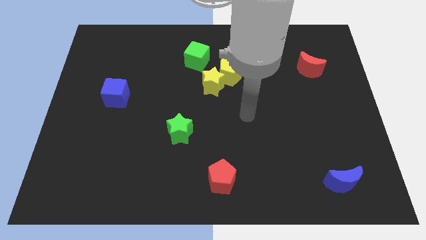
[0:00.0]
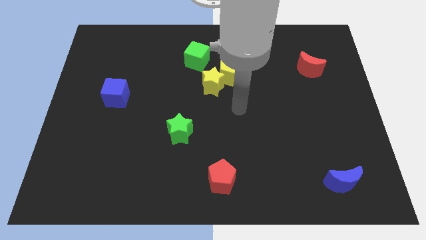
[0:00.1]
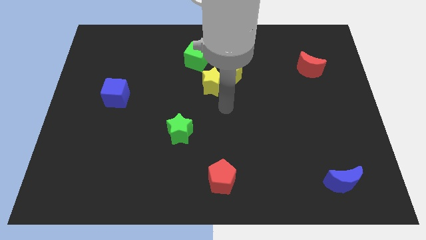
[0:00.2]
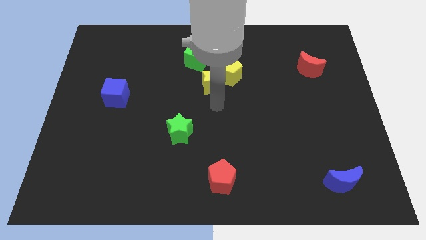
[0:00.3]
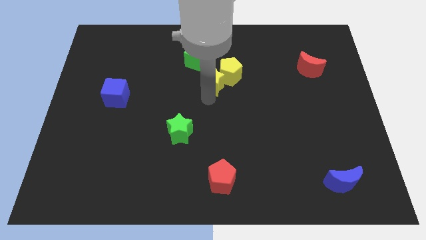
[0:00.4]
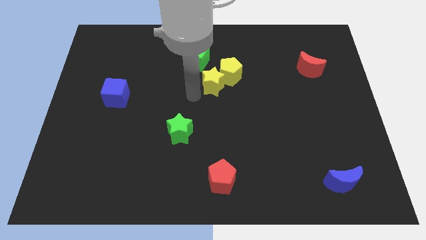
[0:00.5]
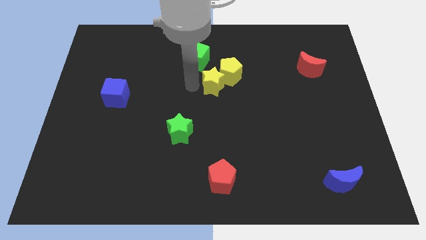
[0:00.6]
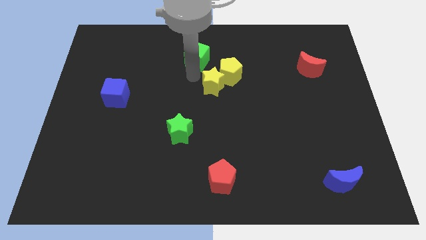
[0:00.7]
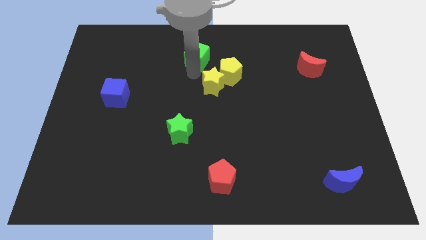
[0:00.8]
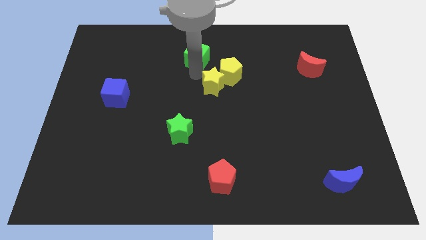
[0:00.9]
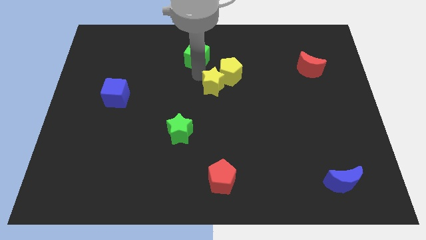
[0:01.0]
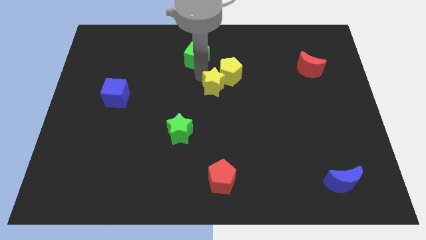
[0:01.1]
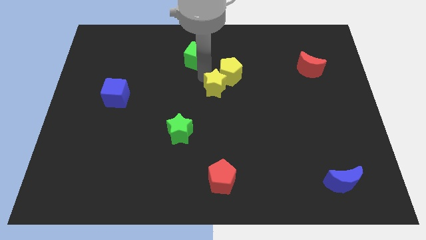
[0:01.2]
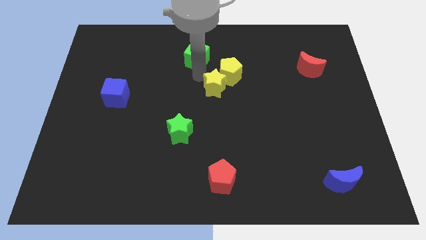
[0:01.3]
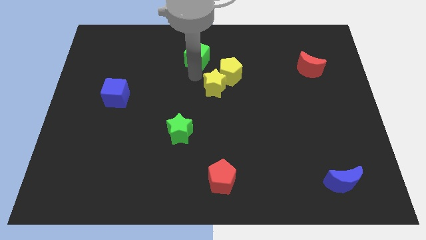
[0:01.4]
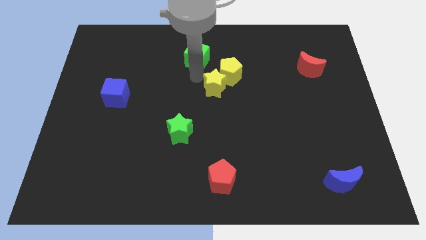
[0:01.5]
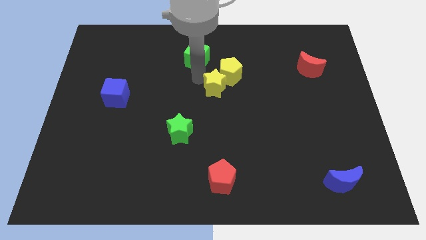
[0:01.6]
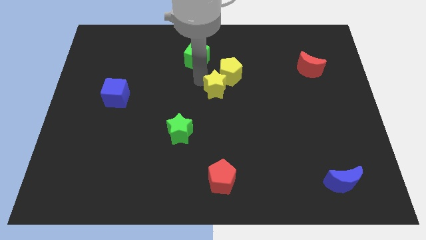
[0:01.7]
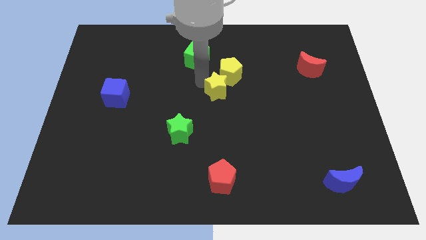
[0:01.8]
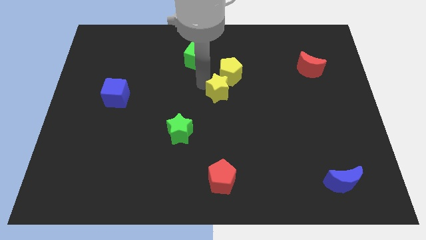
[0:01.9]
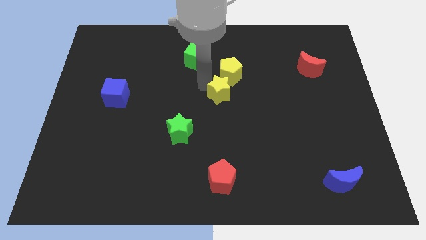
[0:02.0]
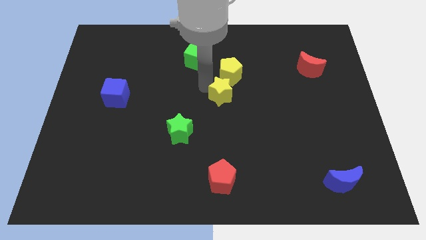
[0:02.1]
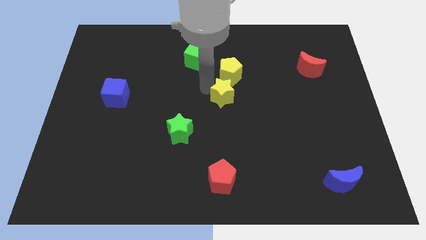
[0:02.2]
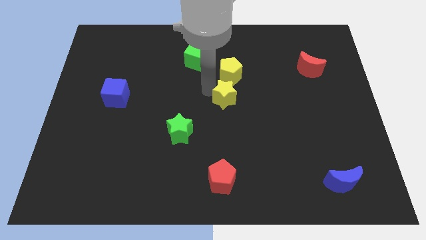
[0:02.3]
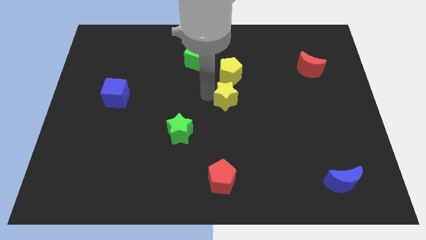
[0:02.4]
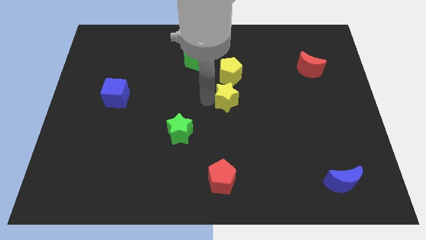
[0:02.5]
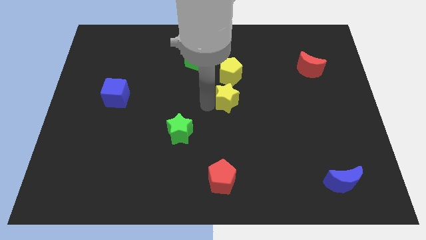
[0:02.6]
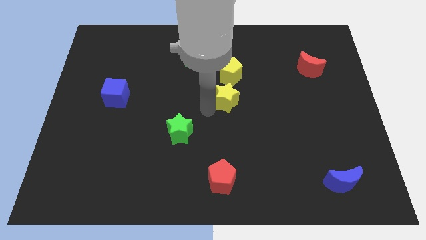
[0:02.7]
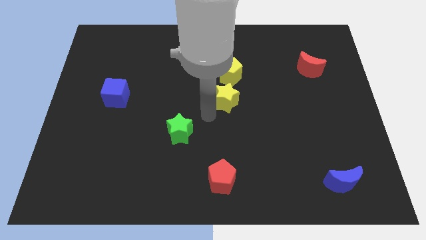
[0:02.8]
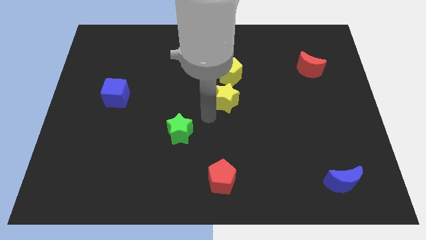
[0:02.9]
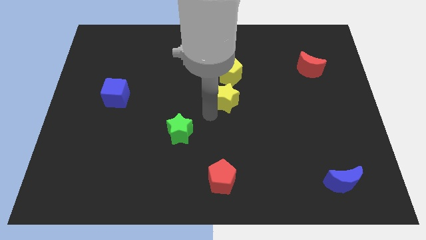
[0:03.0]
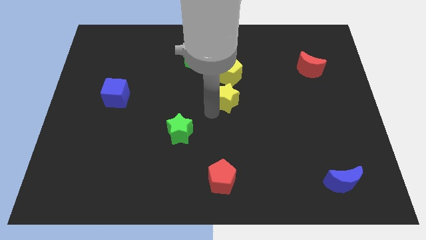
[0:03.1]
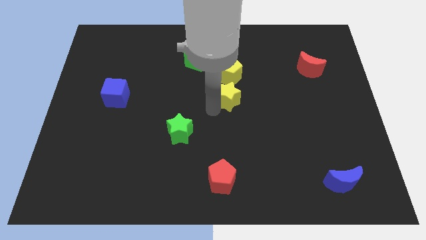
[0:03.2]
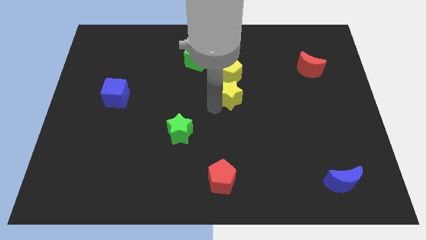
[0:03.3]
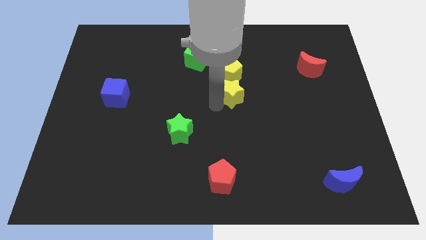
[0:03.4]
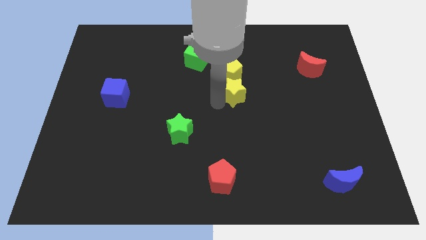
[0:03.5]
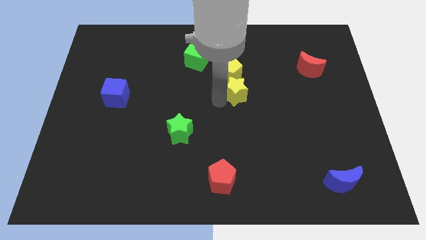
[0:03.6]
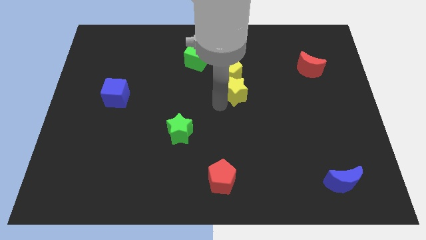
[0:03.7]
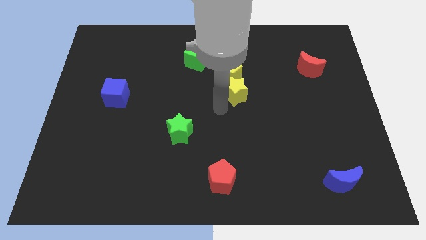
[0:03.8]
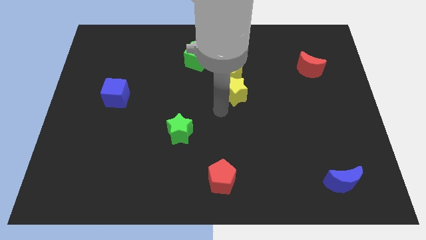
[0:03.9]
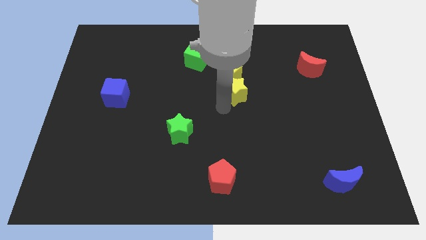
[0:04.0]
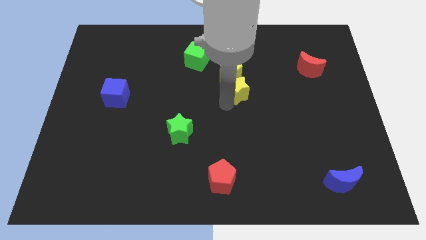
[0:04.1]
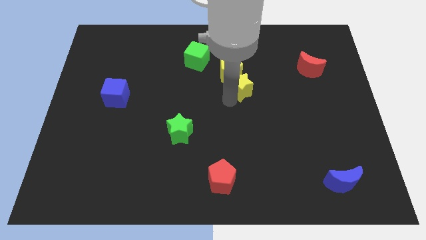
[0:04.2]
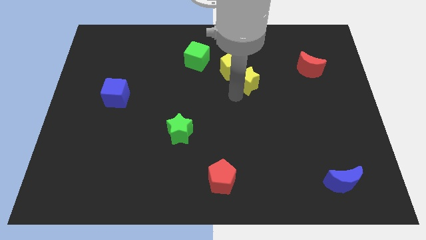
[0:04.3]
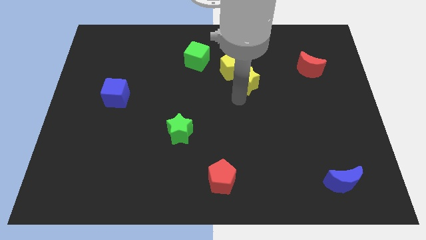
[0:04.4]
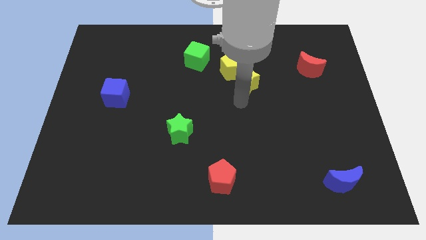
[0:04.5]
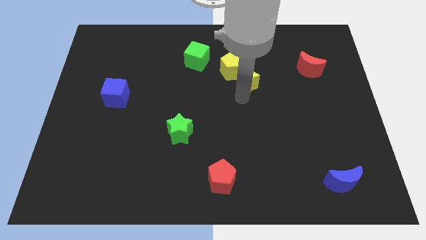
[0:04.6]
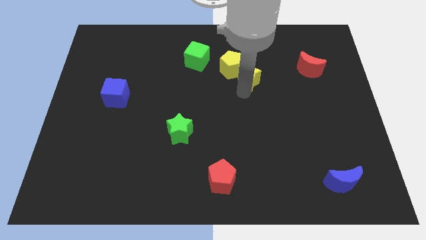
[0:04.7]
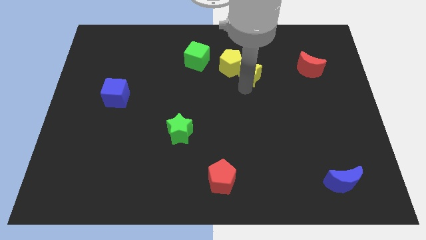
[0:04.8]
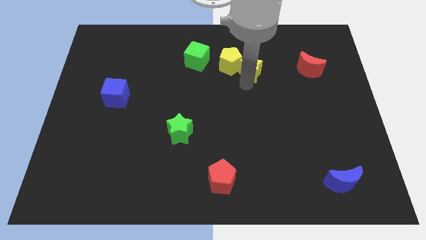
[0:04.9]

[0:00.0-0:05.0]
put the yellow star right of the green cube

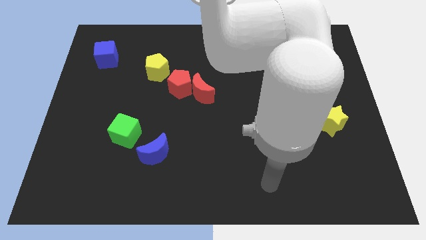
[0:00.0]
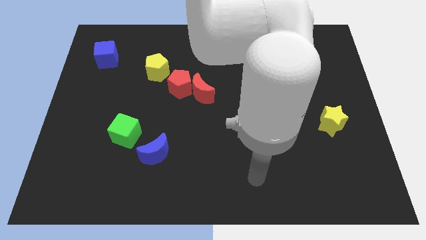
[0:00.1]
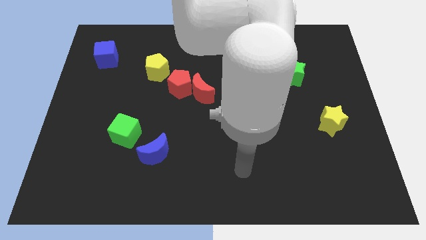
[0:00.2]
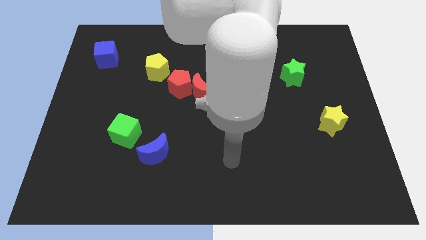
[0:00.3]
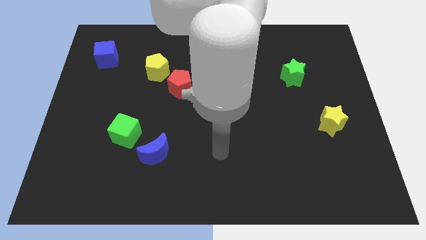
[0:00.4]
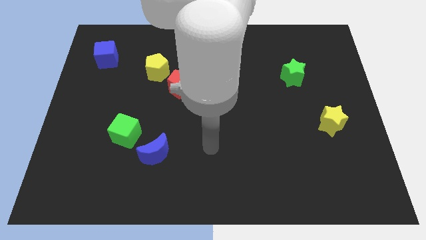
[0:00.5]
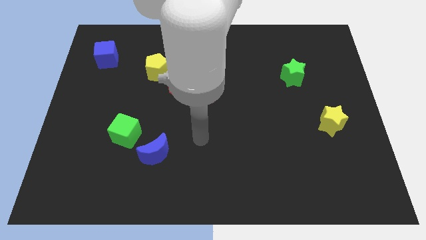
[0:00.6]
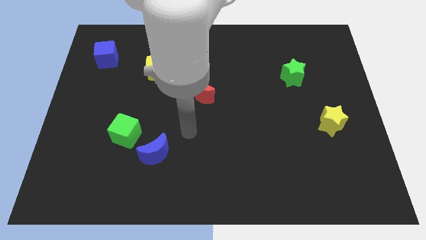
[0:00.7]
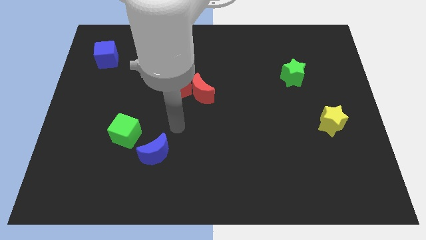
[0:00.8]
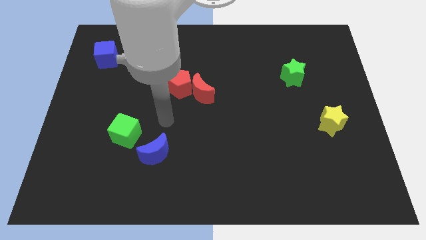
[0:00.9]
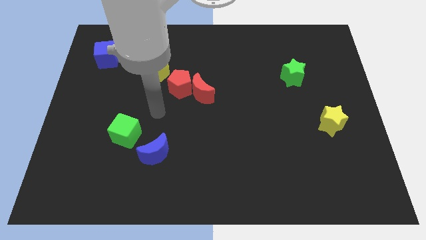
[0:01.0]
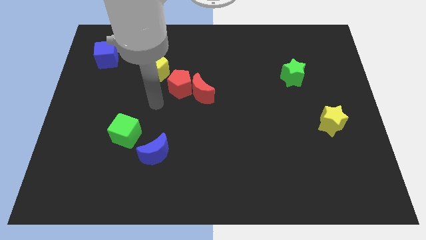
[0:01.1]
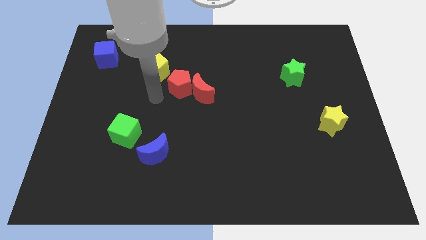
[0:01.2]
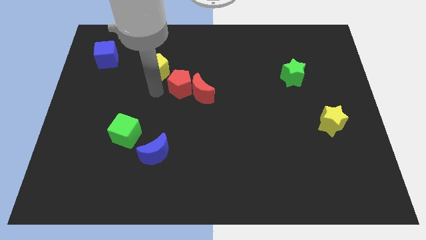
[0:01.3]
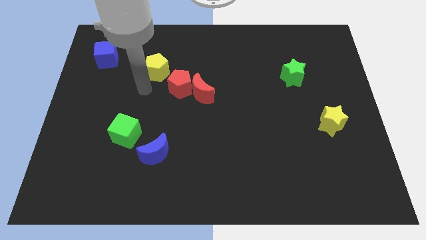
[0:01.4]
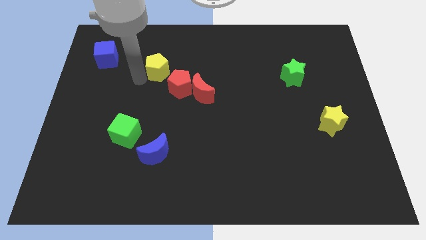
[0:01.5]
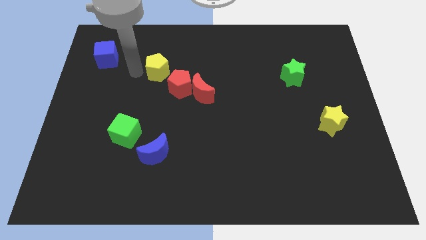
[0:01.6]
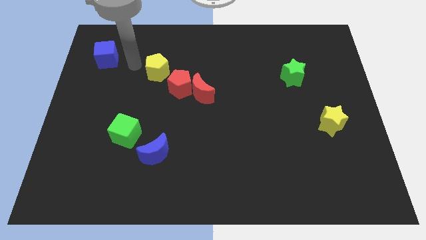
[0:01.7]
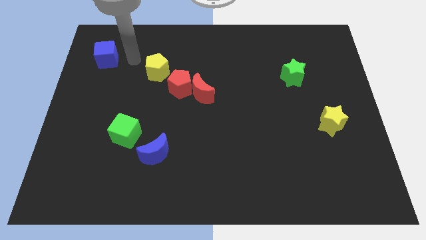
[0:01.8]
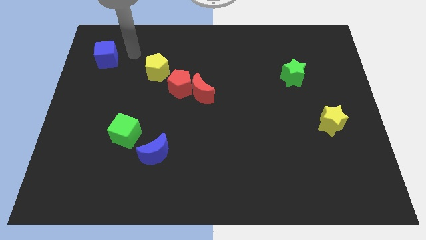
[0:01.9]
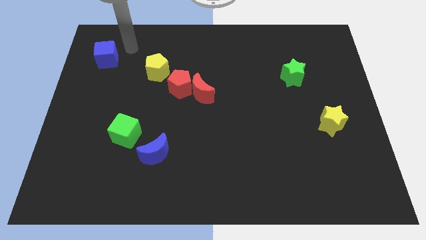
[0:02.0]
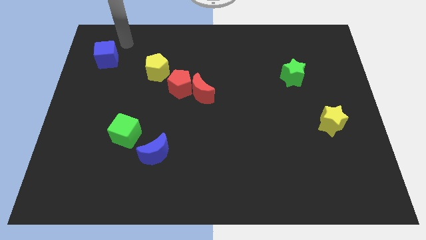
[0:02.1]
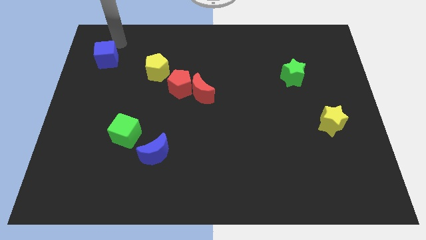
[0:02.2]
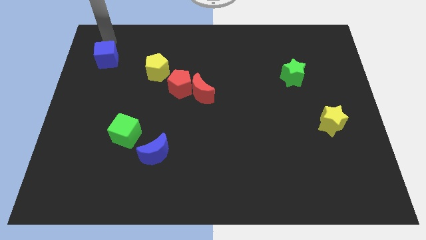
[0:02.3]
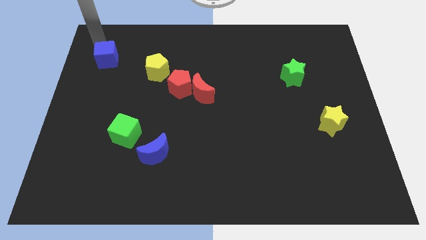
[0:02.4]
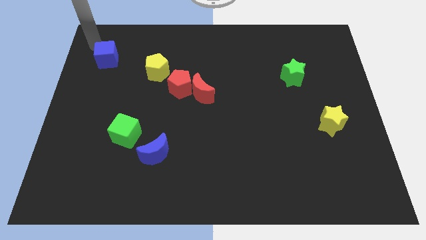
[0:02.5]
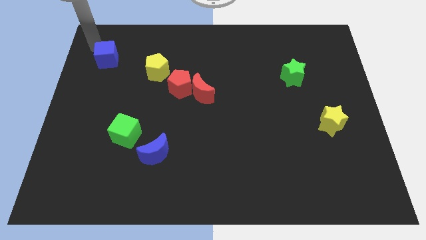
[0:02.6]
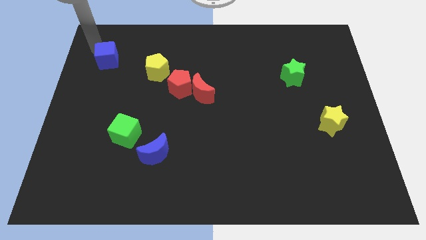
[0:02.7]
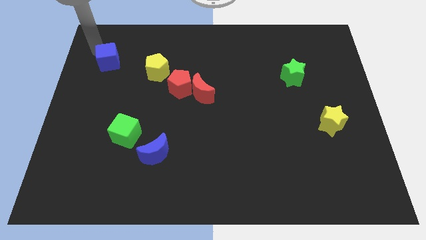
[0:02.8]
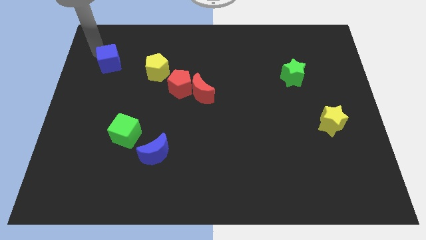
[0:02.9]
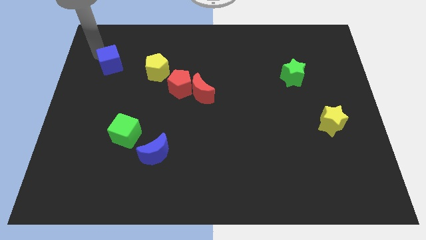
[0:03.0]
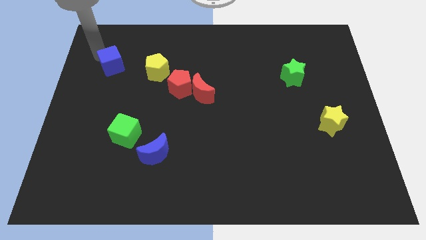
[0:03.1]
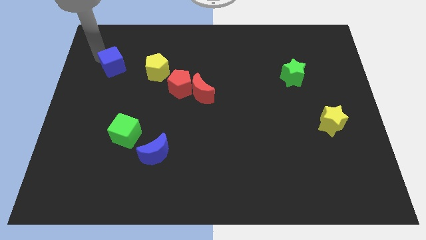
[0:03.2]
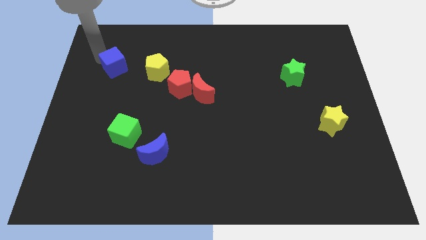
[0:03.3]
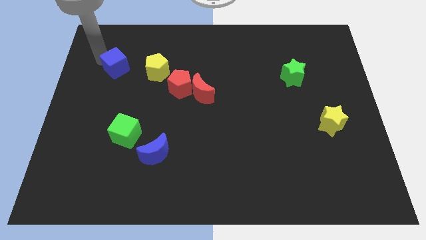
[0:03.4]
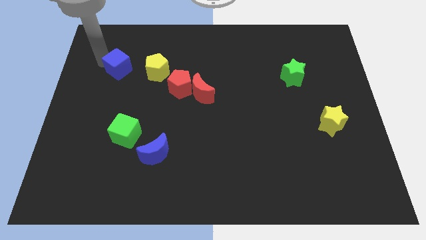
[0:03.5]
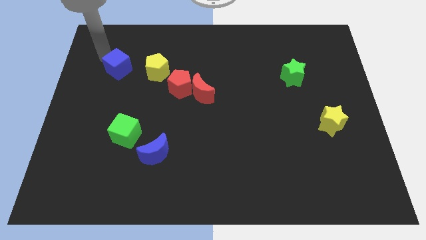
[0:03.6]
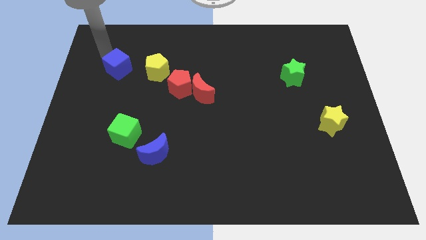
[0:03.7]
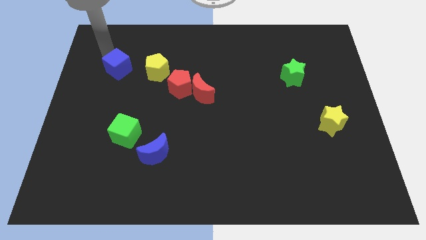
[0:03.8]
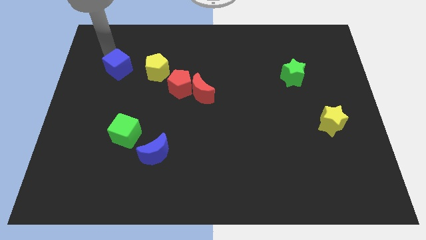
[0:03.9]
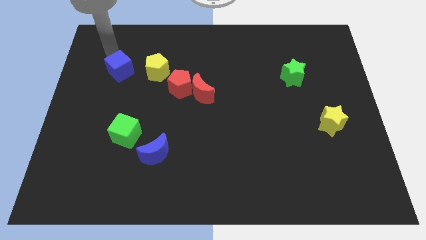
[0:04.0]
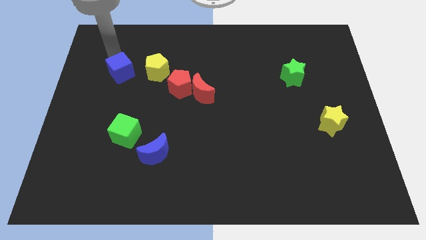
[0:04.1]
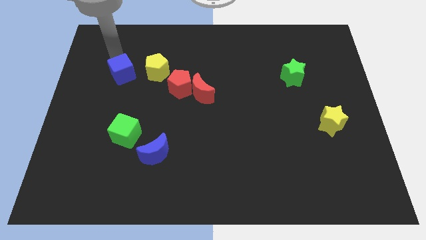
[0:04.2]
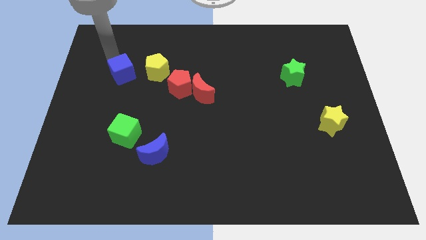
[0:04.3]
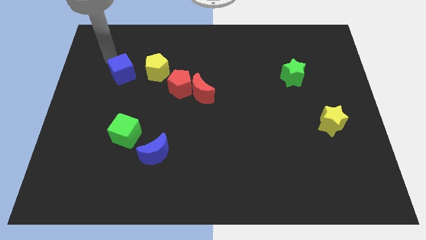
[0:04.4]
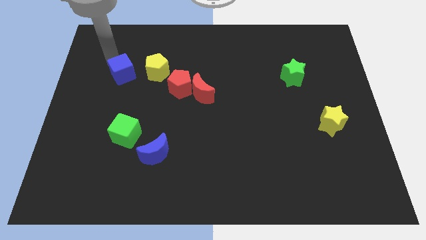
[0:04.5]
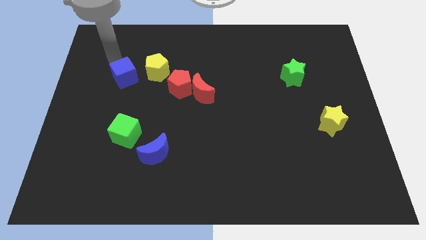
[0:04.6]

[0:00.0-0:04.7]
move the blue cube to the bottom left of the yellow pentagon
